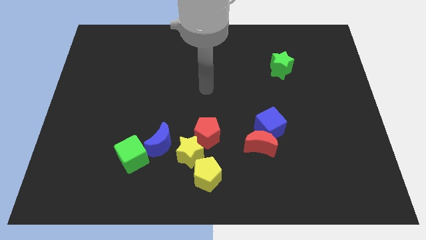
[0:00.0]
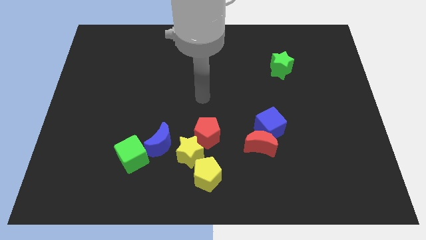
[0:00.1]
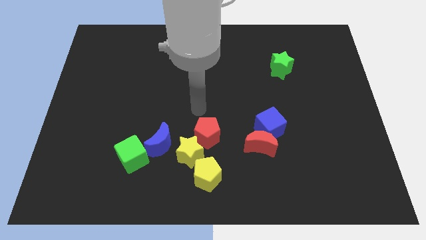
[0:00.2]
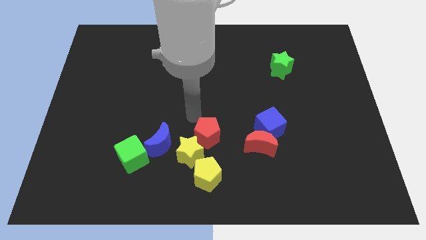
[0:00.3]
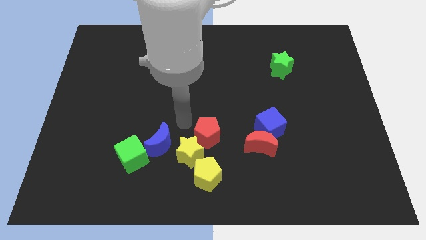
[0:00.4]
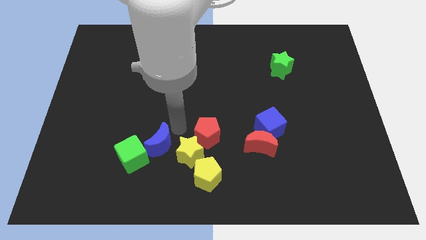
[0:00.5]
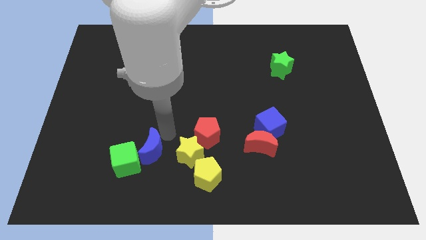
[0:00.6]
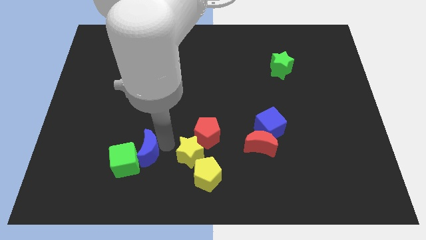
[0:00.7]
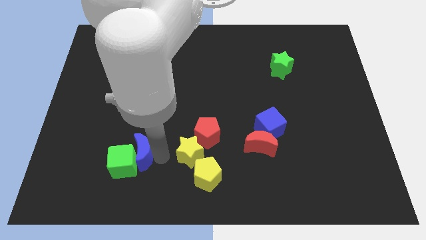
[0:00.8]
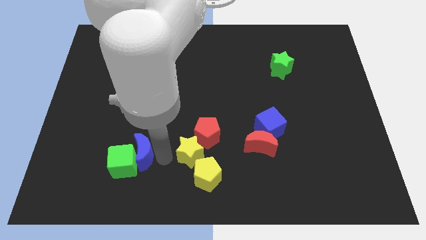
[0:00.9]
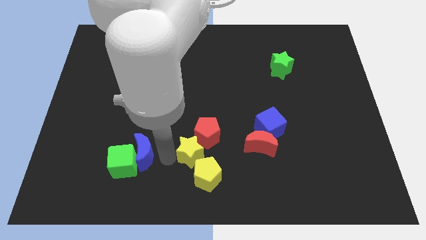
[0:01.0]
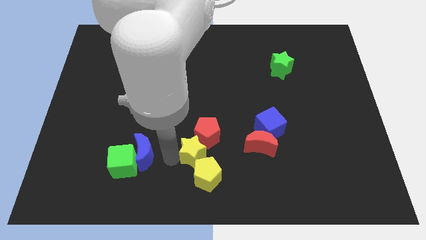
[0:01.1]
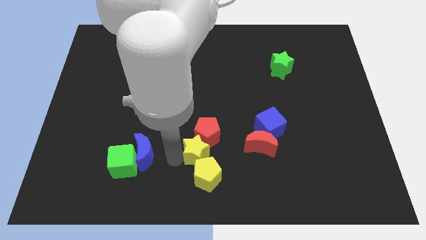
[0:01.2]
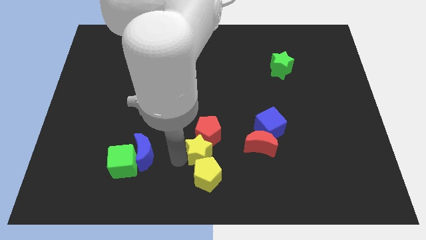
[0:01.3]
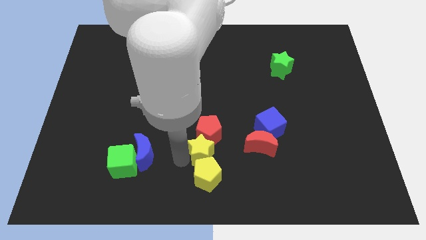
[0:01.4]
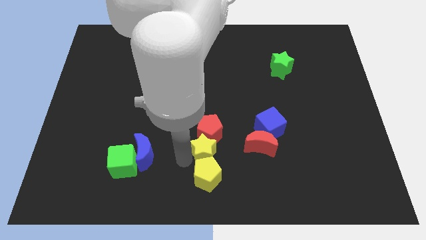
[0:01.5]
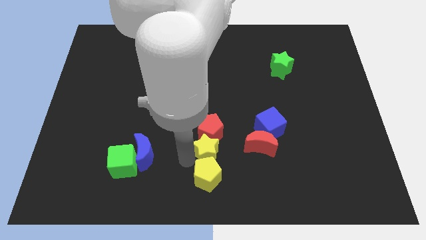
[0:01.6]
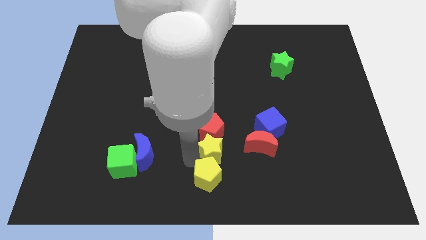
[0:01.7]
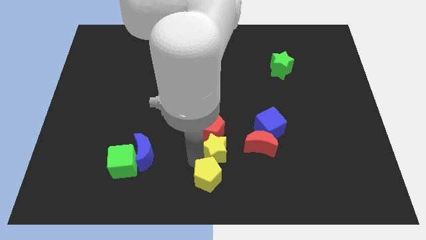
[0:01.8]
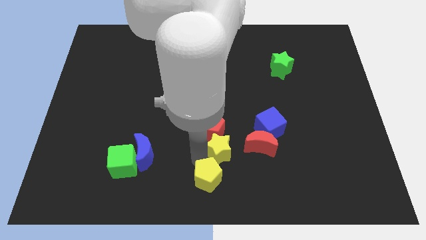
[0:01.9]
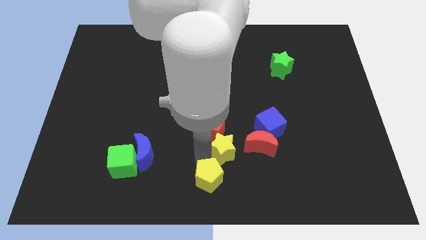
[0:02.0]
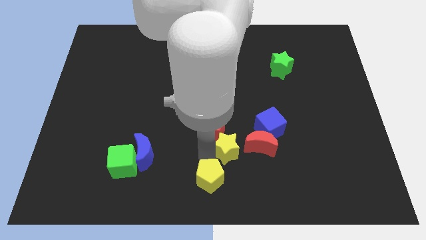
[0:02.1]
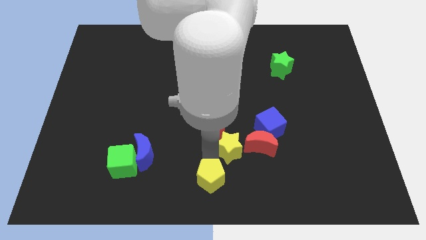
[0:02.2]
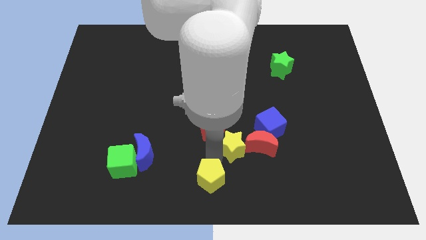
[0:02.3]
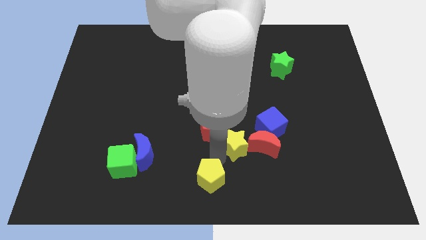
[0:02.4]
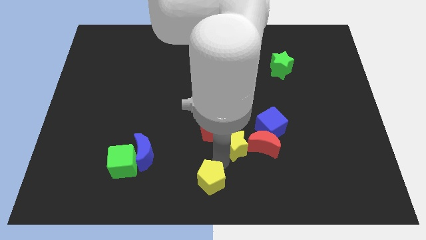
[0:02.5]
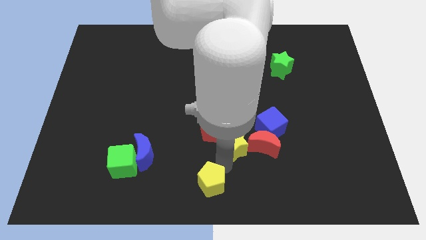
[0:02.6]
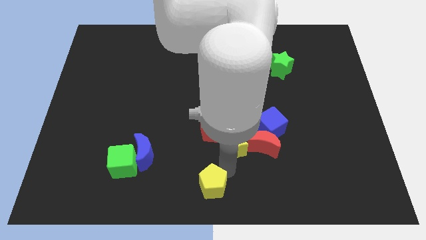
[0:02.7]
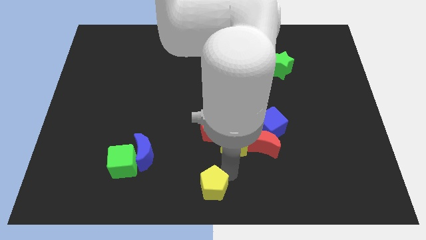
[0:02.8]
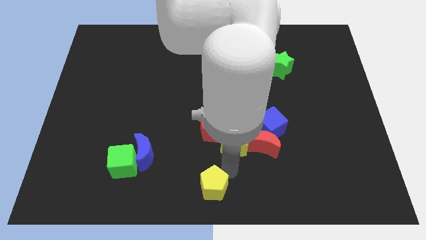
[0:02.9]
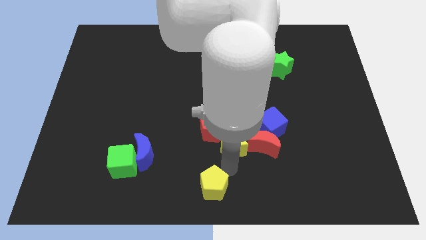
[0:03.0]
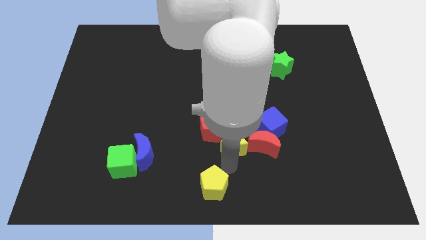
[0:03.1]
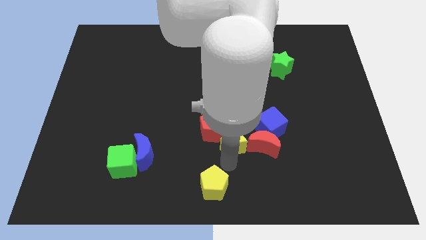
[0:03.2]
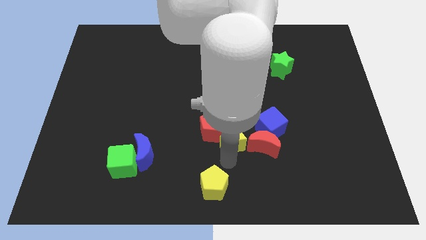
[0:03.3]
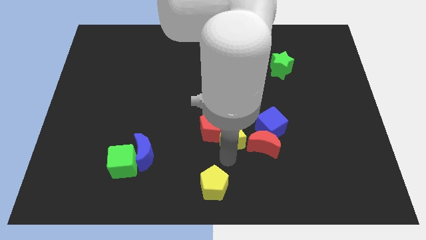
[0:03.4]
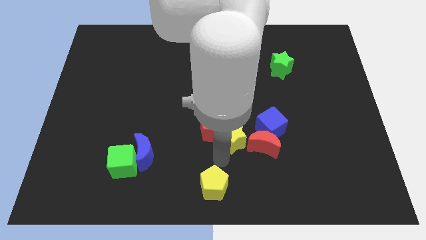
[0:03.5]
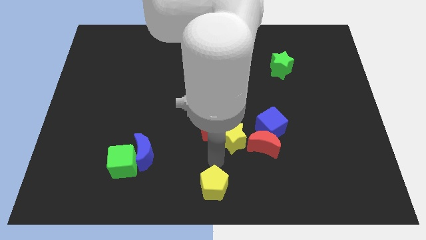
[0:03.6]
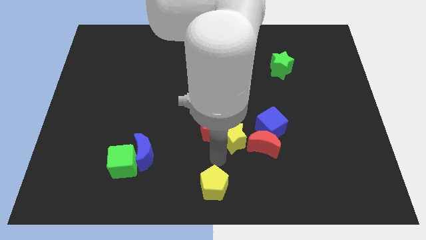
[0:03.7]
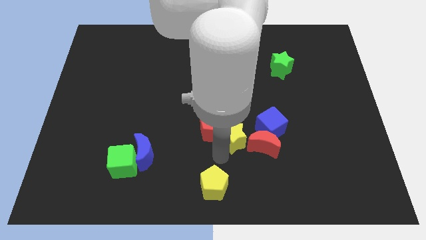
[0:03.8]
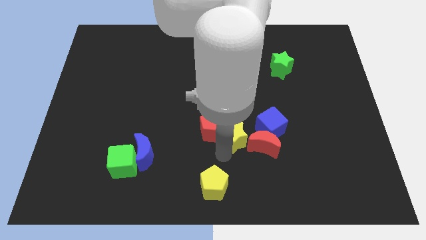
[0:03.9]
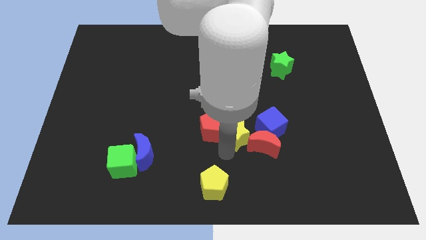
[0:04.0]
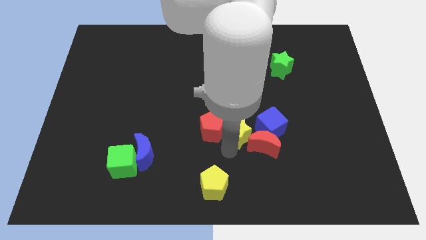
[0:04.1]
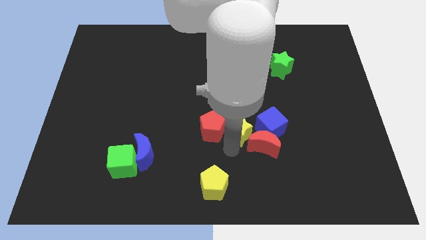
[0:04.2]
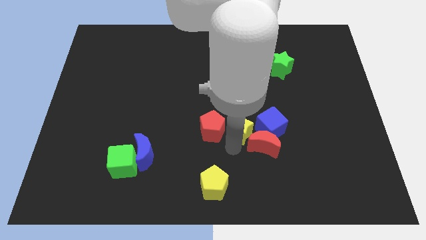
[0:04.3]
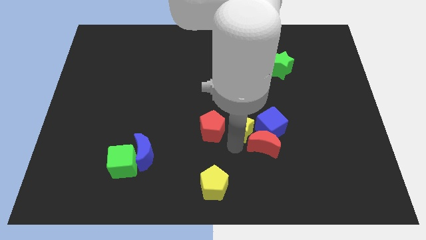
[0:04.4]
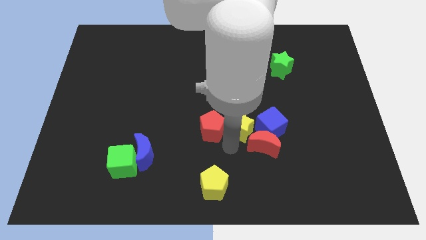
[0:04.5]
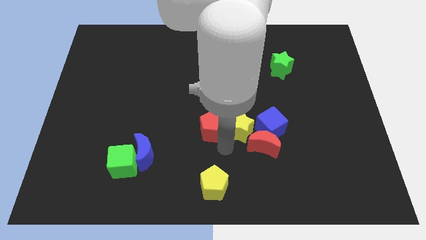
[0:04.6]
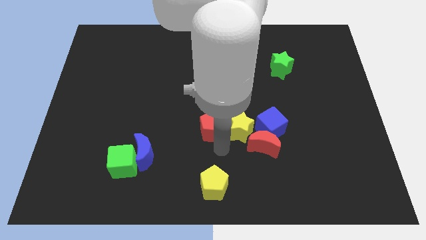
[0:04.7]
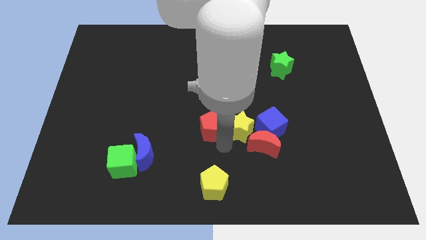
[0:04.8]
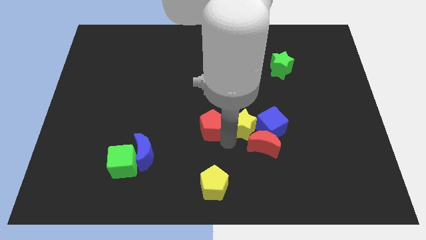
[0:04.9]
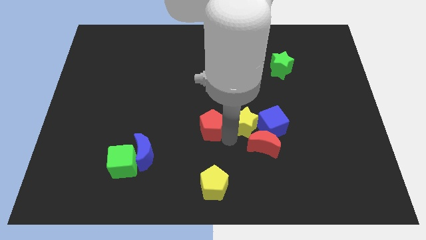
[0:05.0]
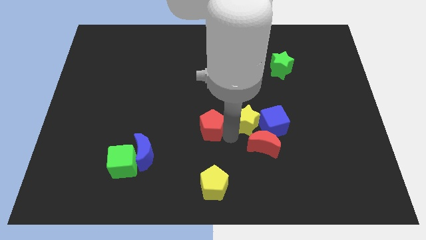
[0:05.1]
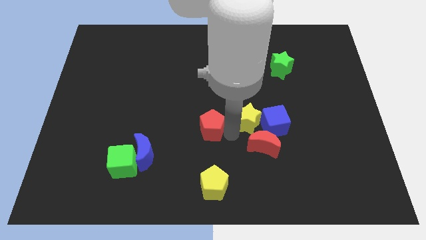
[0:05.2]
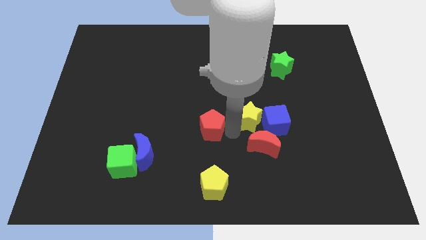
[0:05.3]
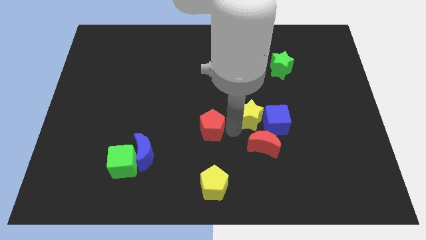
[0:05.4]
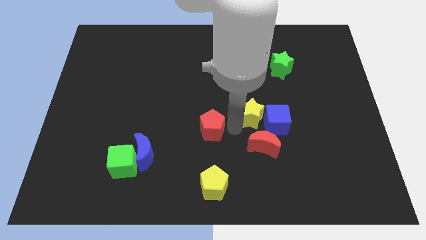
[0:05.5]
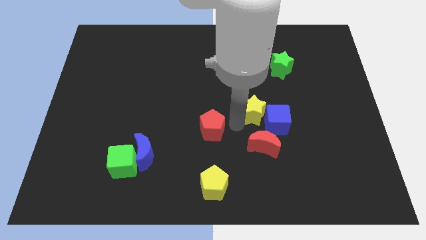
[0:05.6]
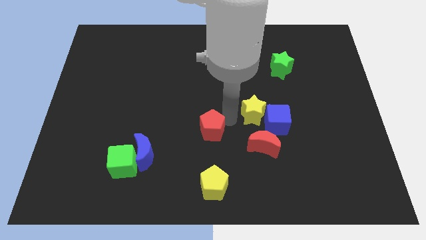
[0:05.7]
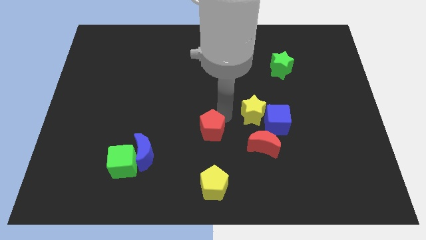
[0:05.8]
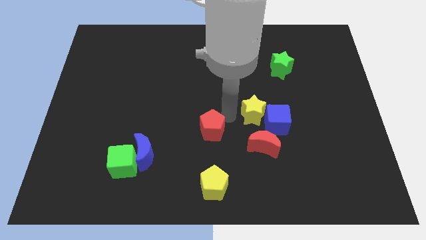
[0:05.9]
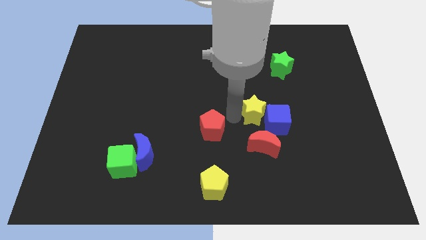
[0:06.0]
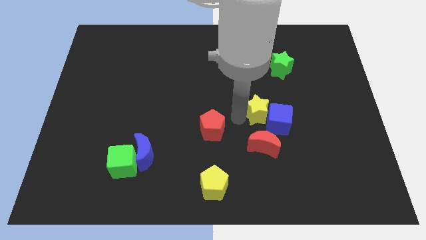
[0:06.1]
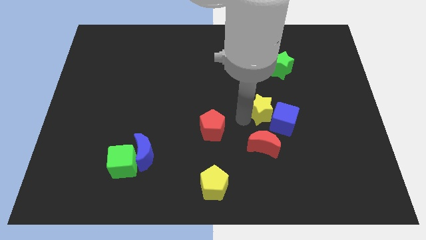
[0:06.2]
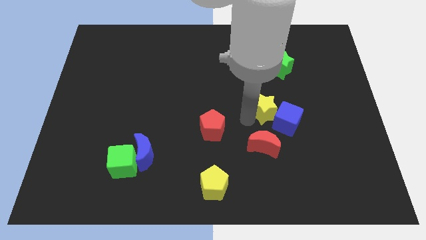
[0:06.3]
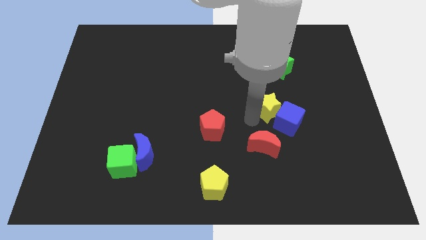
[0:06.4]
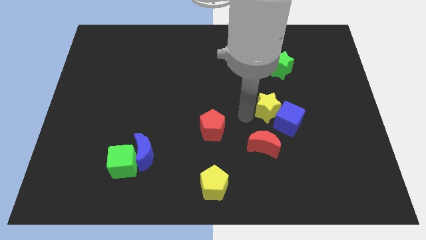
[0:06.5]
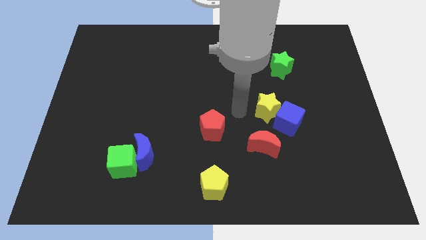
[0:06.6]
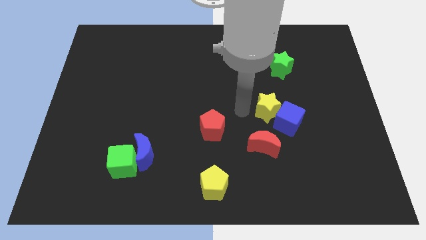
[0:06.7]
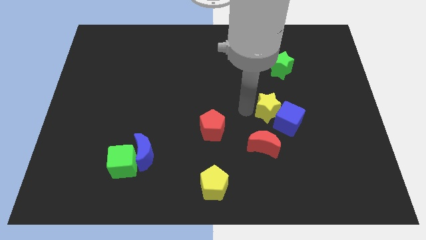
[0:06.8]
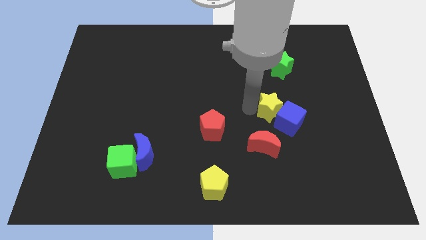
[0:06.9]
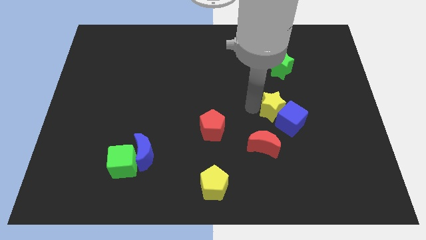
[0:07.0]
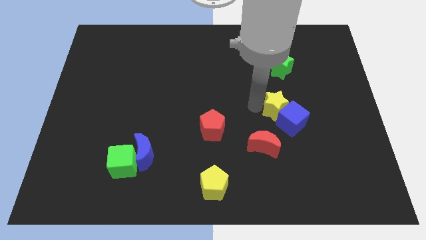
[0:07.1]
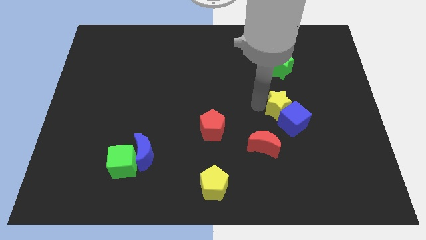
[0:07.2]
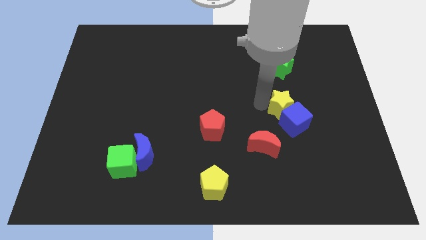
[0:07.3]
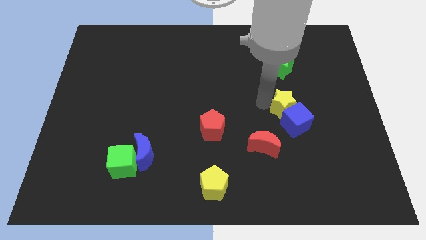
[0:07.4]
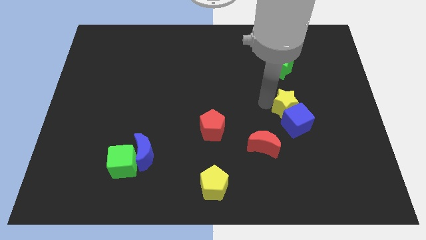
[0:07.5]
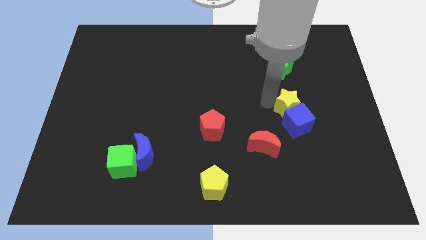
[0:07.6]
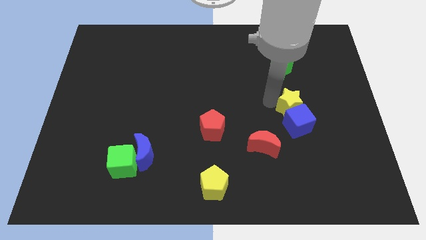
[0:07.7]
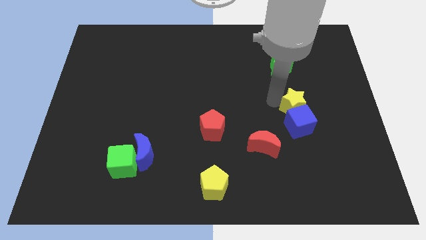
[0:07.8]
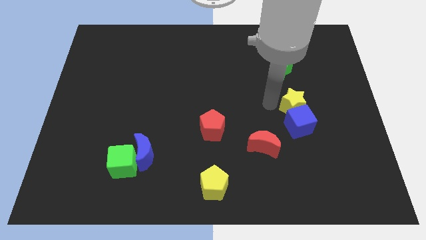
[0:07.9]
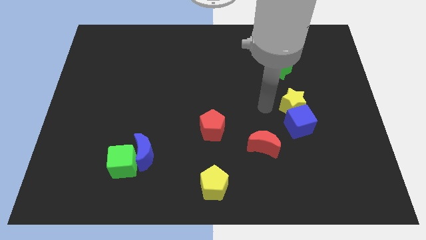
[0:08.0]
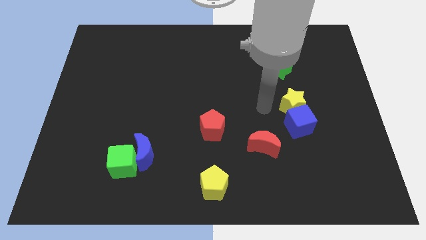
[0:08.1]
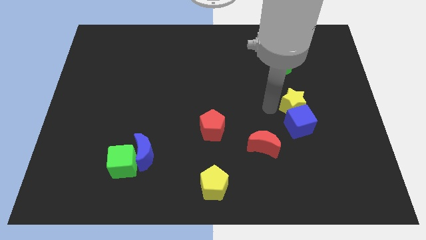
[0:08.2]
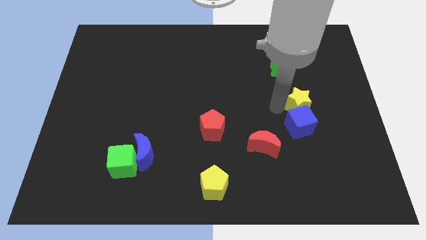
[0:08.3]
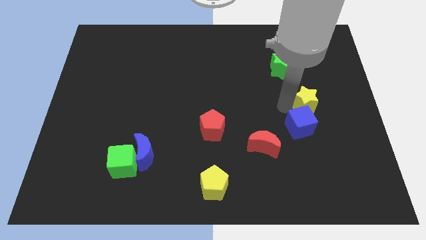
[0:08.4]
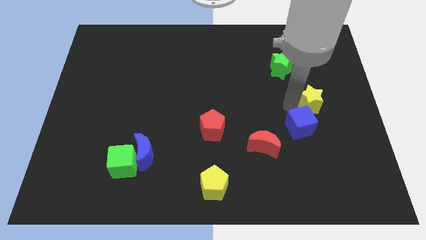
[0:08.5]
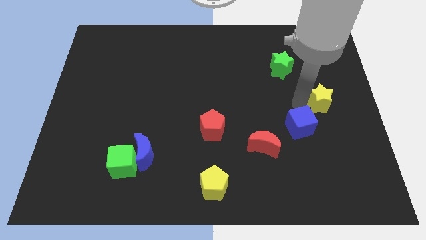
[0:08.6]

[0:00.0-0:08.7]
move the yellow star to the center right
